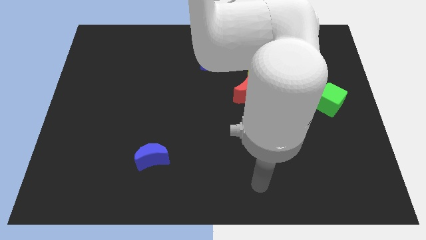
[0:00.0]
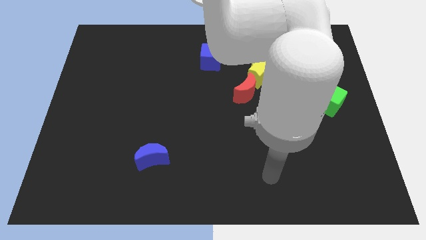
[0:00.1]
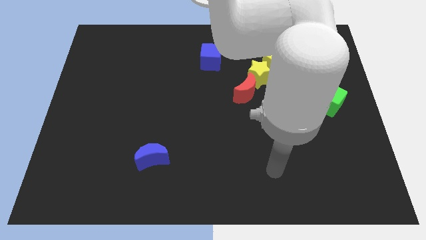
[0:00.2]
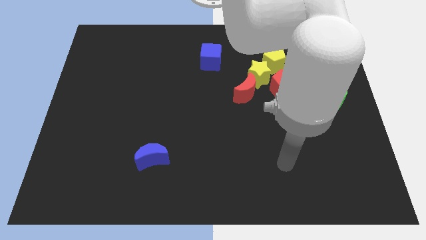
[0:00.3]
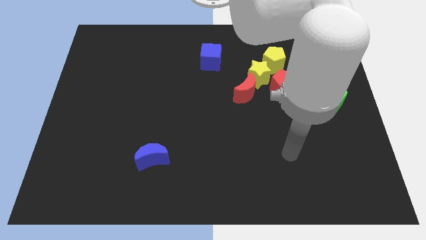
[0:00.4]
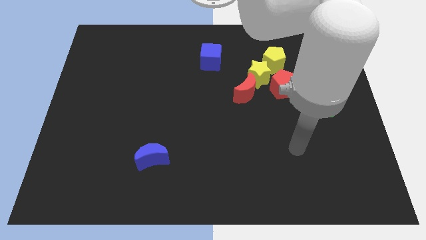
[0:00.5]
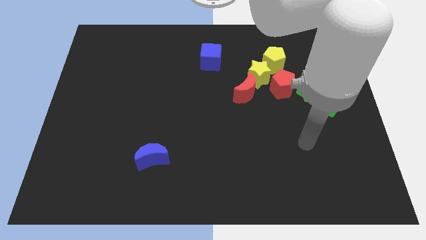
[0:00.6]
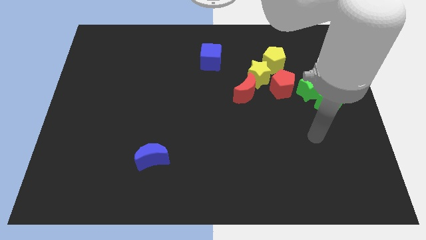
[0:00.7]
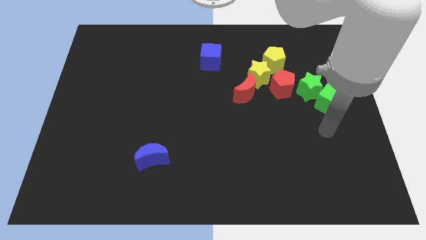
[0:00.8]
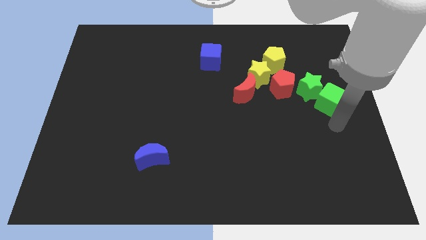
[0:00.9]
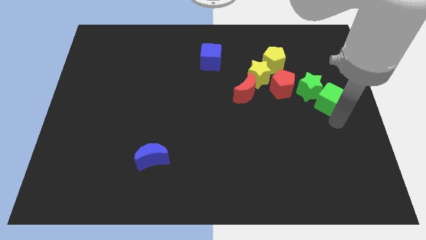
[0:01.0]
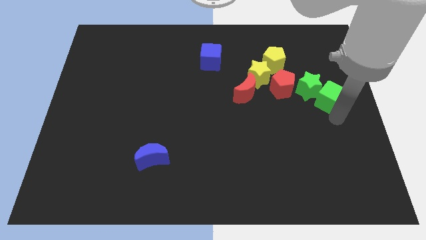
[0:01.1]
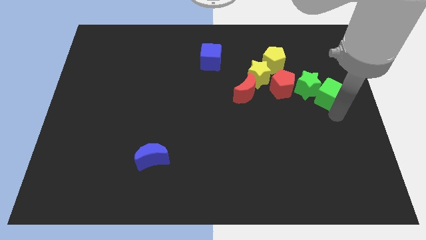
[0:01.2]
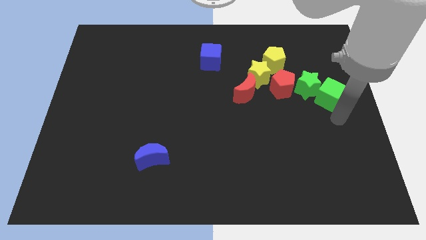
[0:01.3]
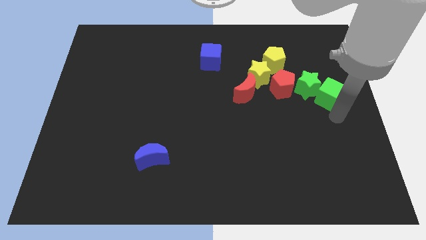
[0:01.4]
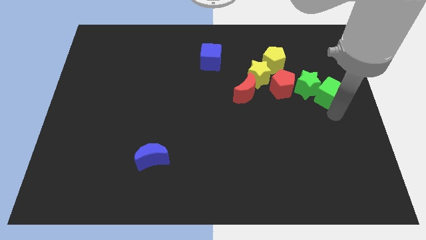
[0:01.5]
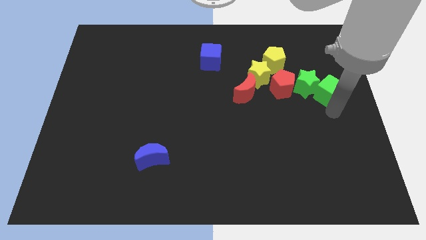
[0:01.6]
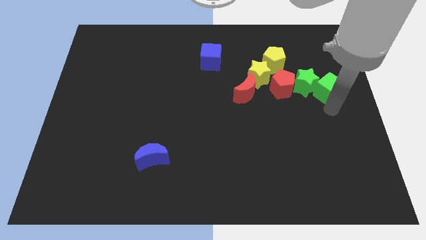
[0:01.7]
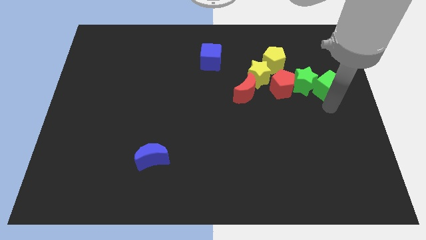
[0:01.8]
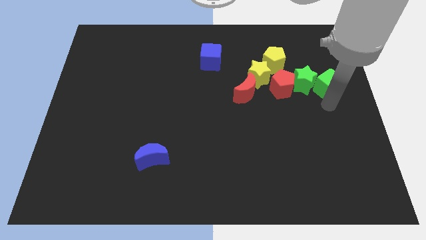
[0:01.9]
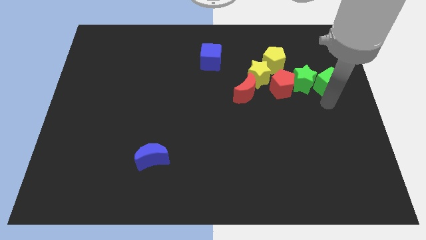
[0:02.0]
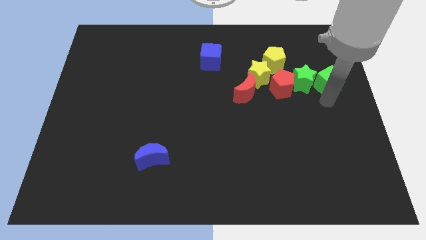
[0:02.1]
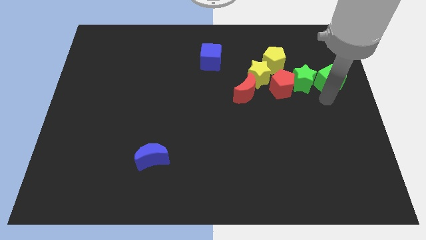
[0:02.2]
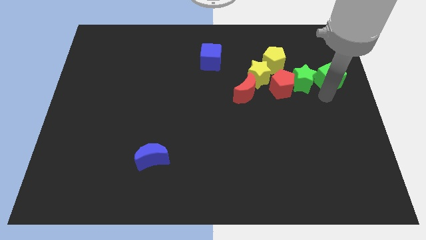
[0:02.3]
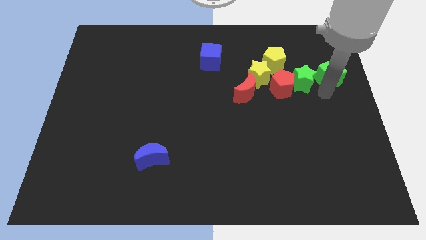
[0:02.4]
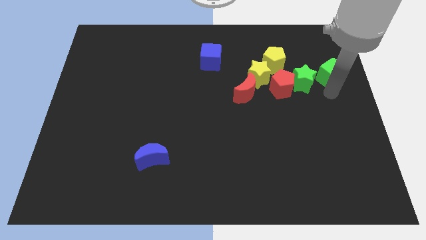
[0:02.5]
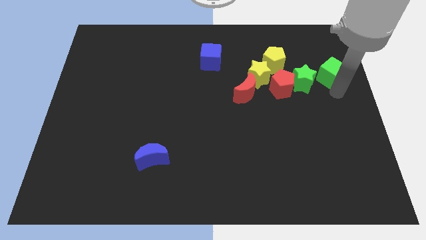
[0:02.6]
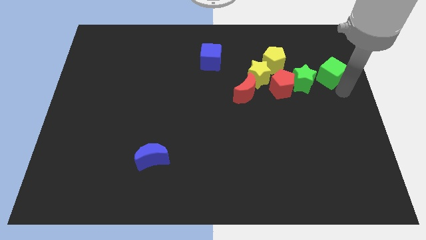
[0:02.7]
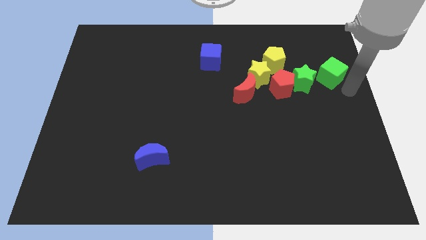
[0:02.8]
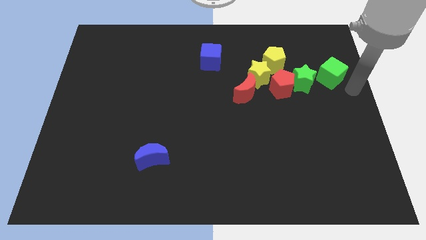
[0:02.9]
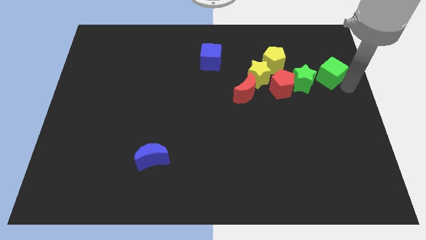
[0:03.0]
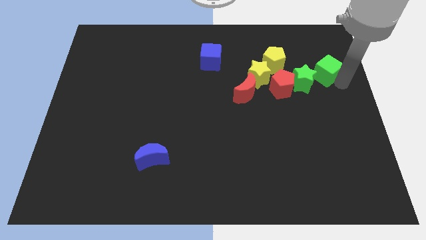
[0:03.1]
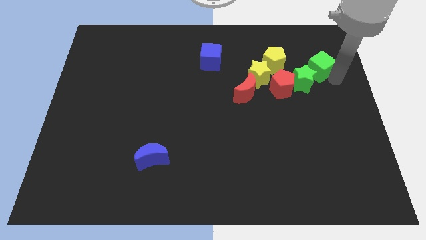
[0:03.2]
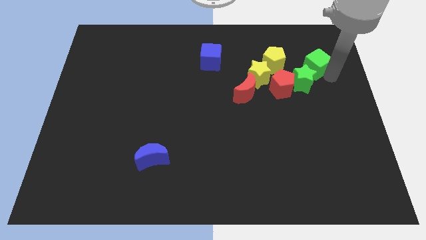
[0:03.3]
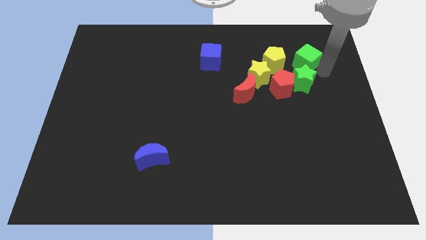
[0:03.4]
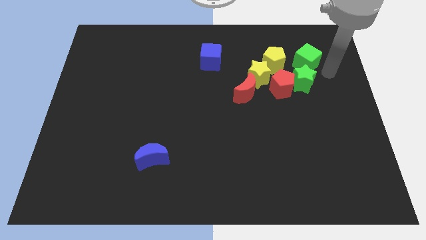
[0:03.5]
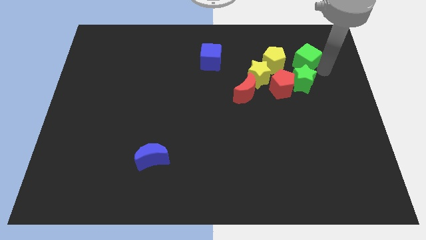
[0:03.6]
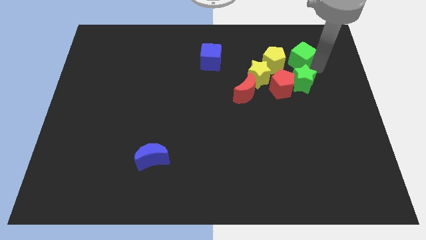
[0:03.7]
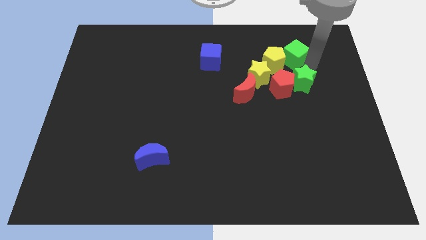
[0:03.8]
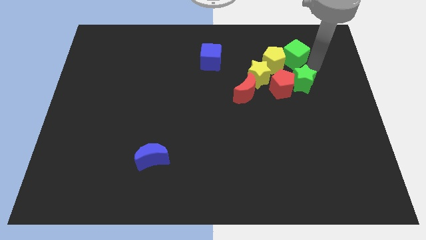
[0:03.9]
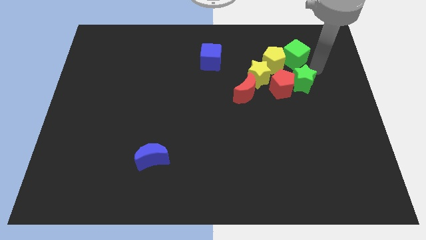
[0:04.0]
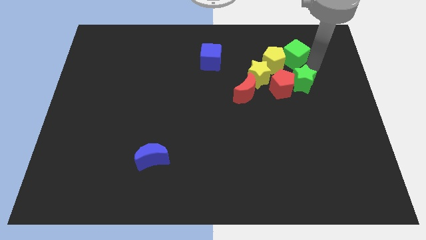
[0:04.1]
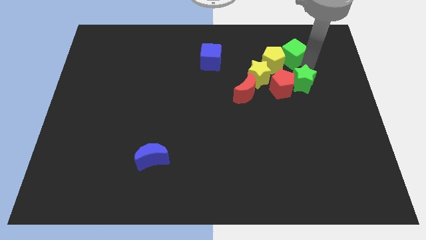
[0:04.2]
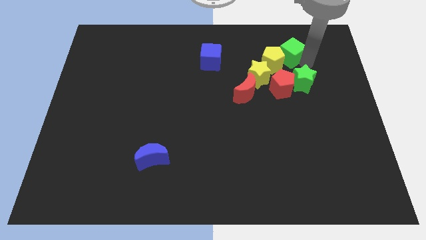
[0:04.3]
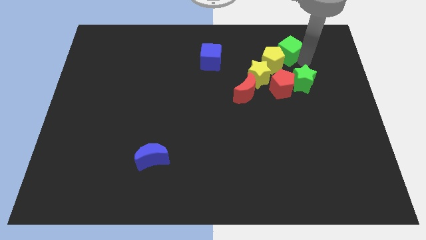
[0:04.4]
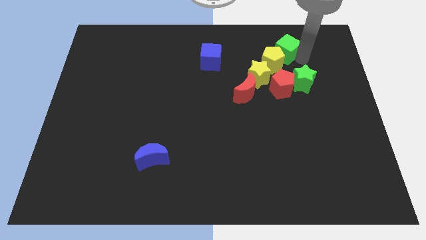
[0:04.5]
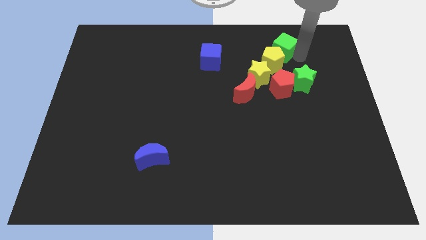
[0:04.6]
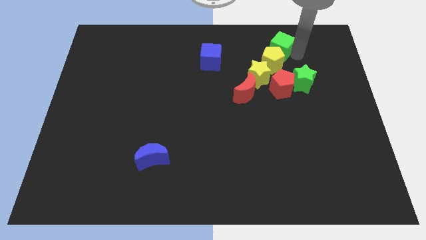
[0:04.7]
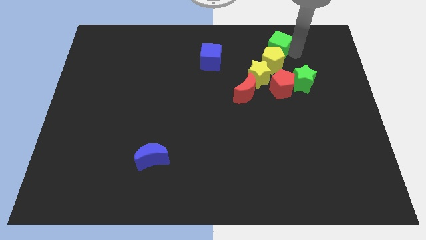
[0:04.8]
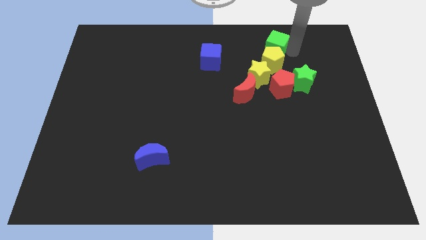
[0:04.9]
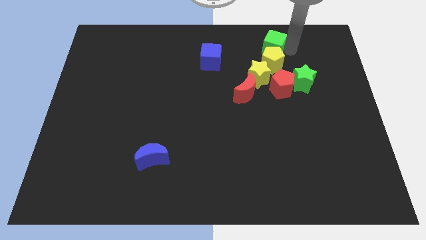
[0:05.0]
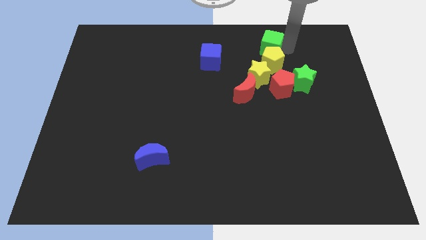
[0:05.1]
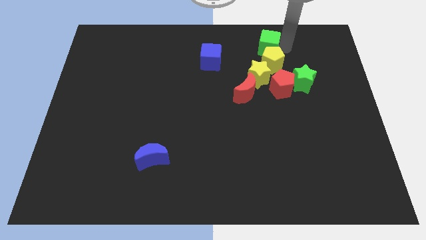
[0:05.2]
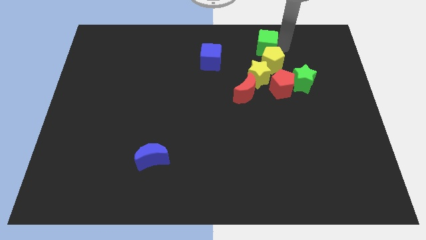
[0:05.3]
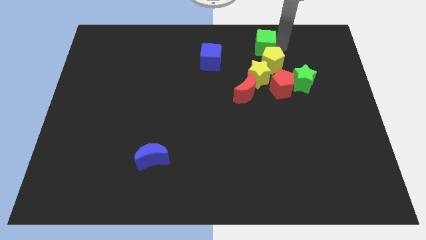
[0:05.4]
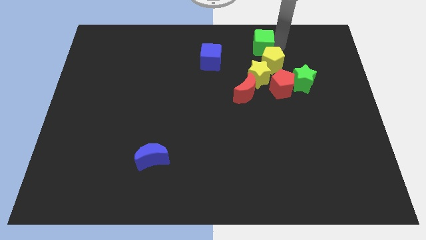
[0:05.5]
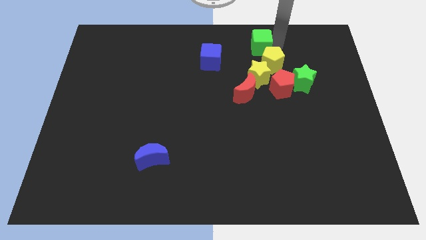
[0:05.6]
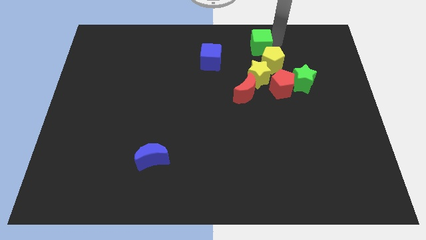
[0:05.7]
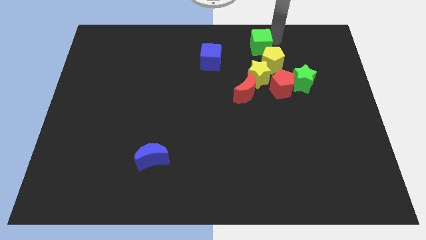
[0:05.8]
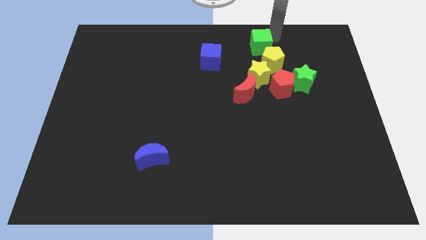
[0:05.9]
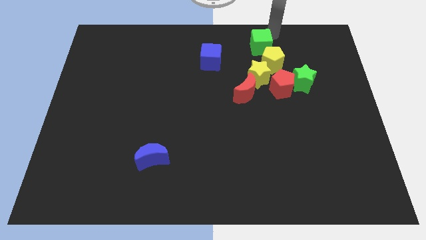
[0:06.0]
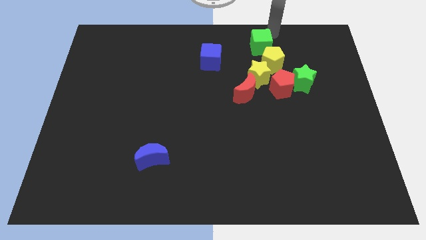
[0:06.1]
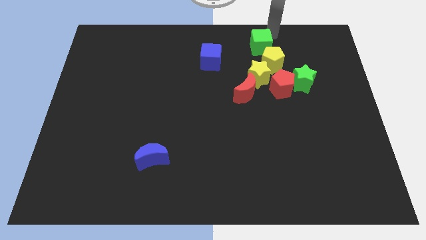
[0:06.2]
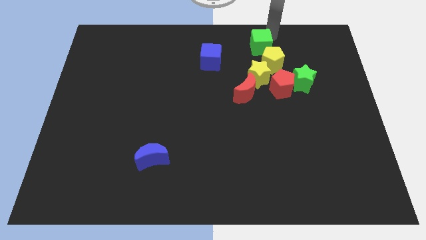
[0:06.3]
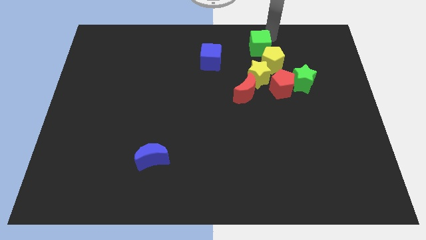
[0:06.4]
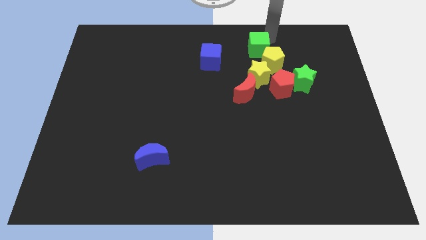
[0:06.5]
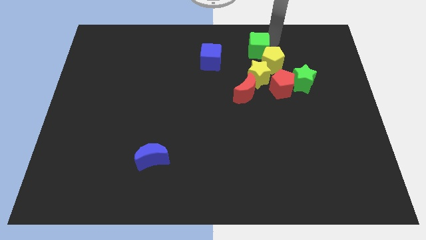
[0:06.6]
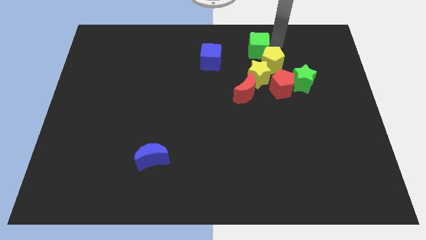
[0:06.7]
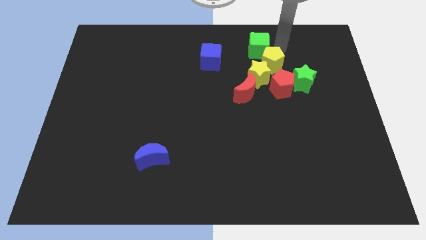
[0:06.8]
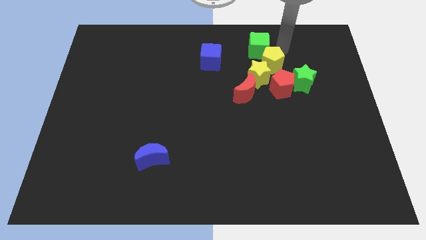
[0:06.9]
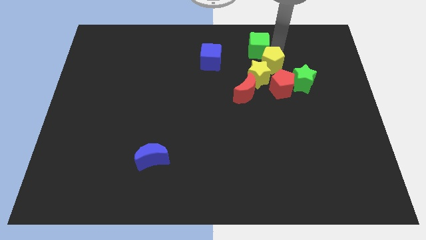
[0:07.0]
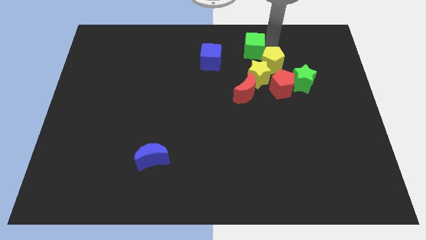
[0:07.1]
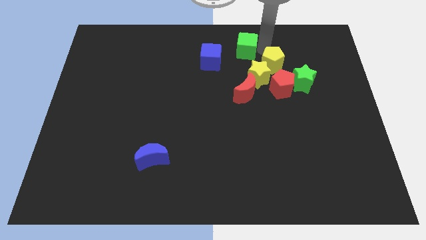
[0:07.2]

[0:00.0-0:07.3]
move the green cube to the top
